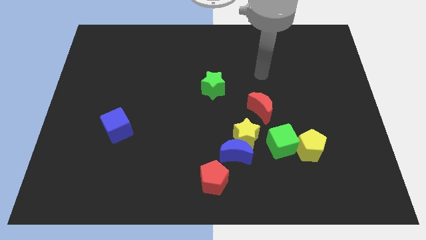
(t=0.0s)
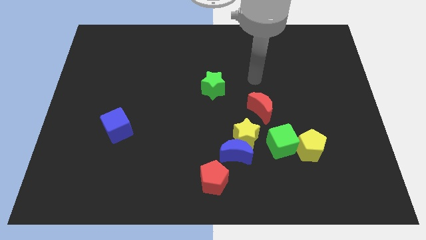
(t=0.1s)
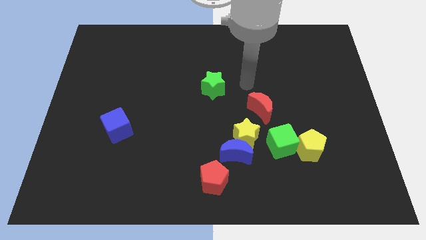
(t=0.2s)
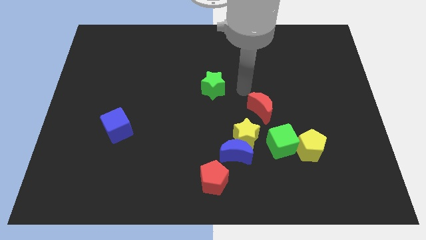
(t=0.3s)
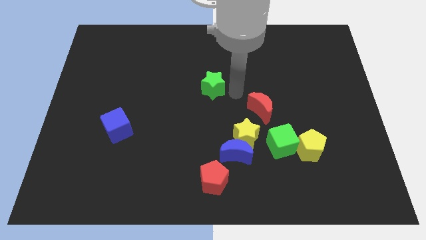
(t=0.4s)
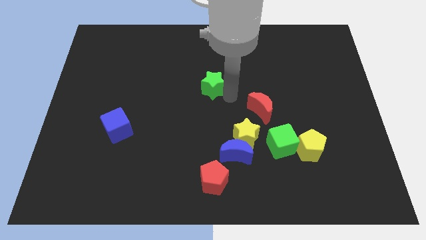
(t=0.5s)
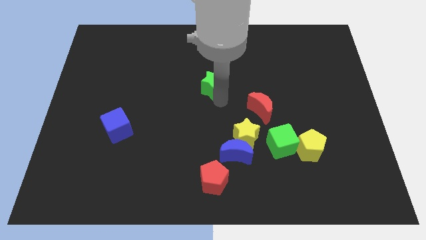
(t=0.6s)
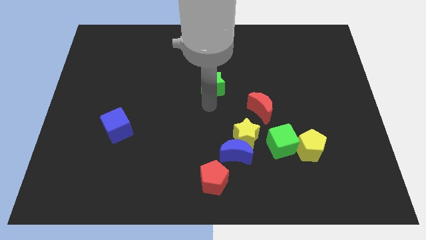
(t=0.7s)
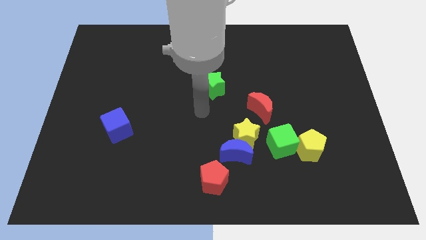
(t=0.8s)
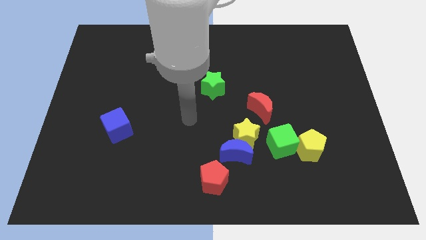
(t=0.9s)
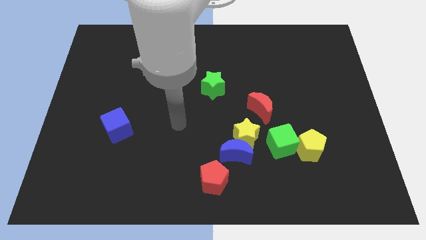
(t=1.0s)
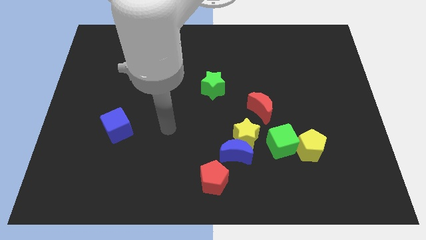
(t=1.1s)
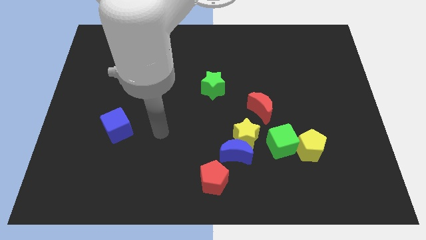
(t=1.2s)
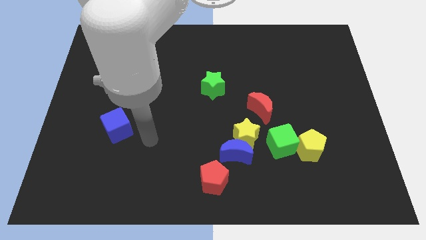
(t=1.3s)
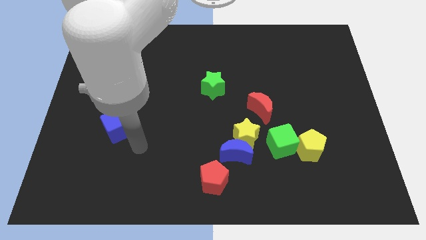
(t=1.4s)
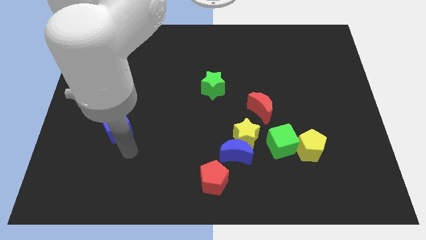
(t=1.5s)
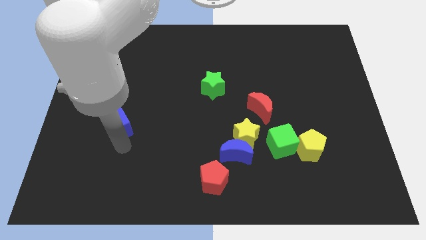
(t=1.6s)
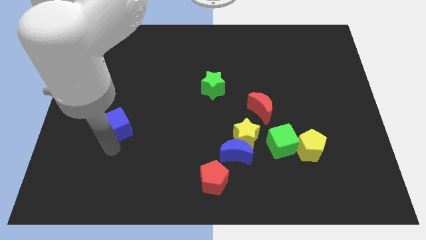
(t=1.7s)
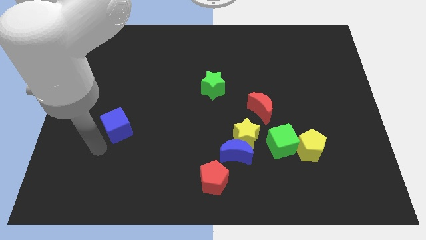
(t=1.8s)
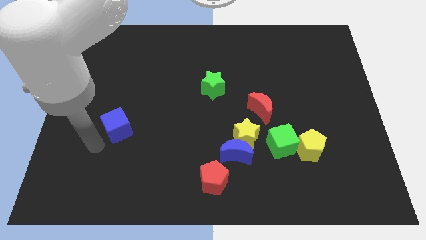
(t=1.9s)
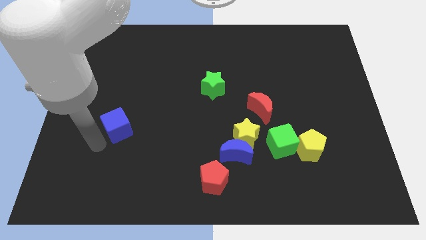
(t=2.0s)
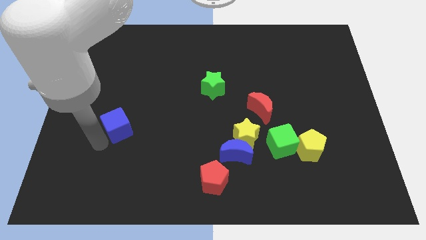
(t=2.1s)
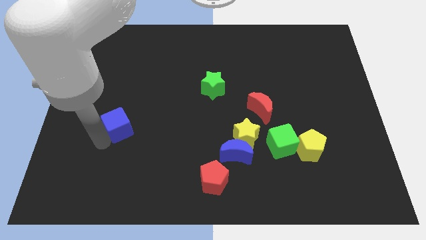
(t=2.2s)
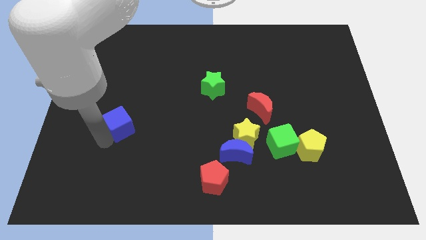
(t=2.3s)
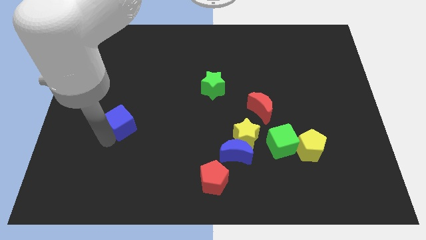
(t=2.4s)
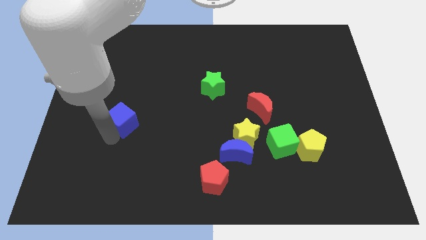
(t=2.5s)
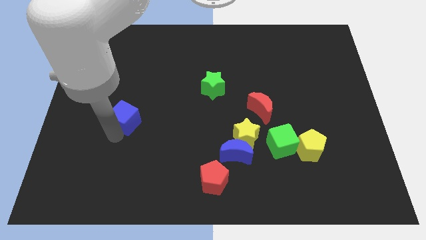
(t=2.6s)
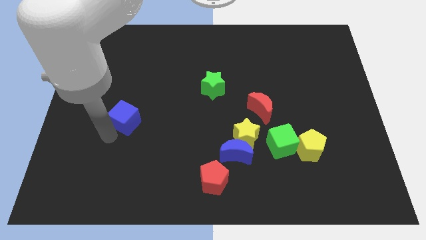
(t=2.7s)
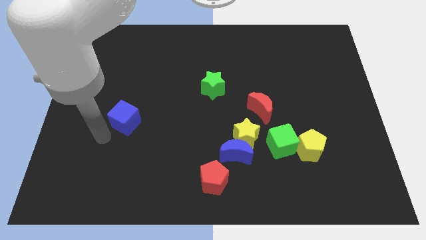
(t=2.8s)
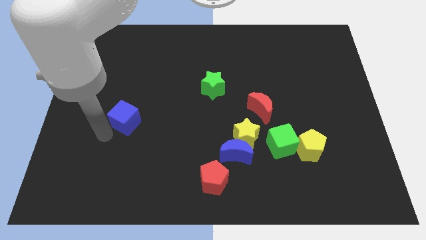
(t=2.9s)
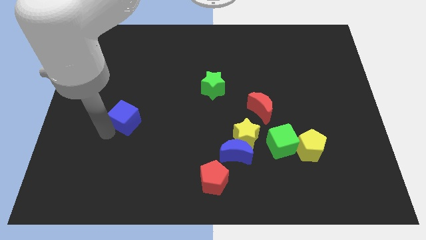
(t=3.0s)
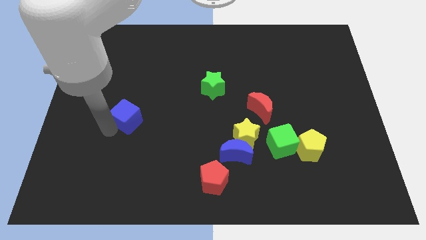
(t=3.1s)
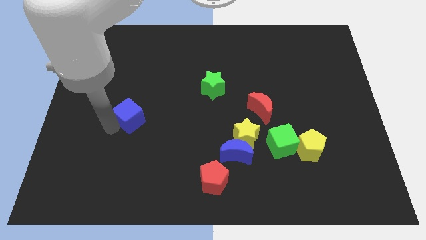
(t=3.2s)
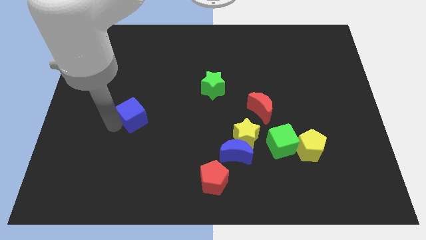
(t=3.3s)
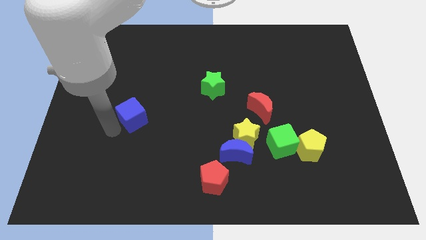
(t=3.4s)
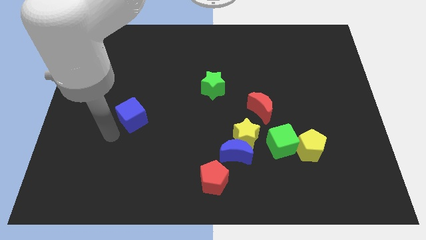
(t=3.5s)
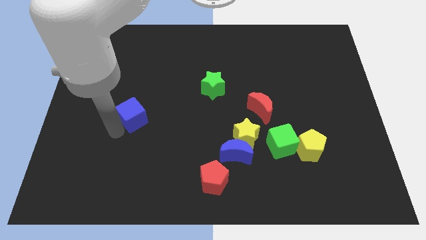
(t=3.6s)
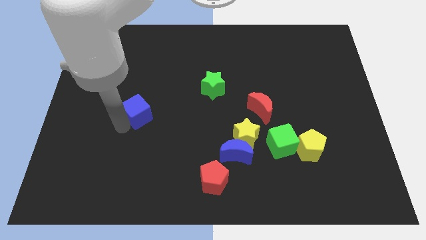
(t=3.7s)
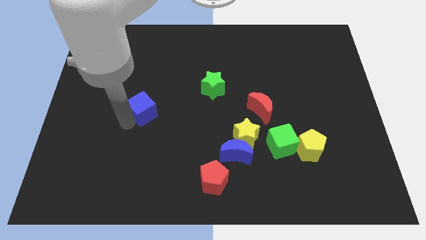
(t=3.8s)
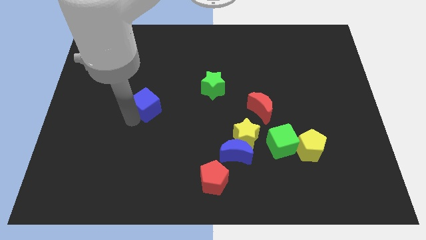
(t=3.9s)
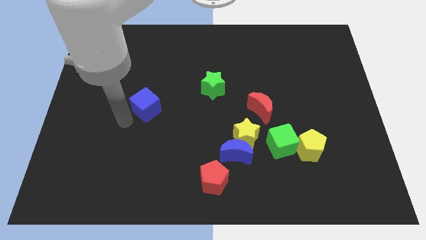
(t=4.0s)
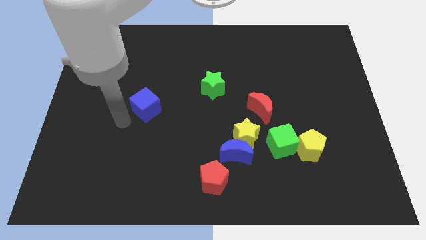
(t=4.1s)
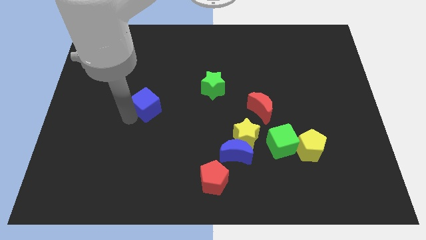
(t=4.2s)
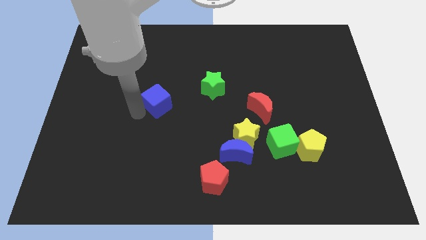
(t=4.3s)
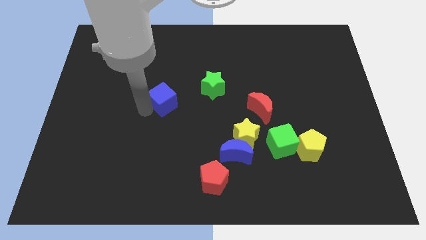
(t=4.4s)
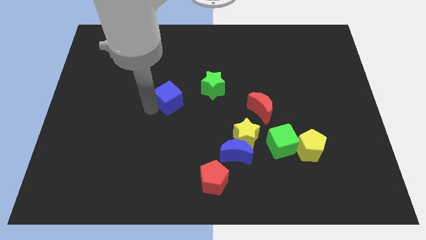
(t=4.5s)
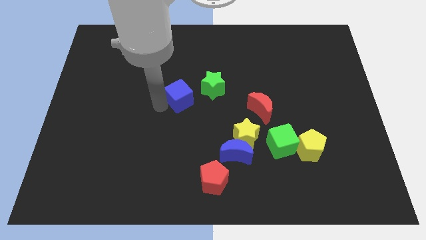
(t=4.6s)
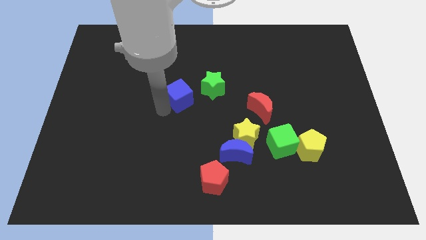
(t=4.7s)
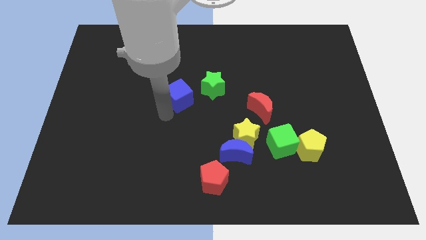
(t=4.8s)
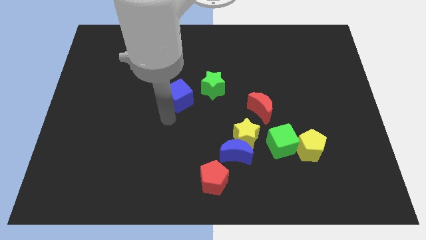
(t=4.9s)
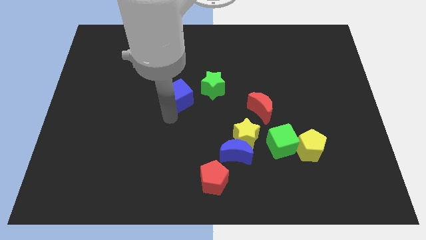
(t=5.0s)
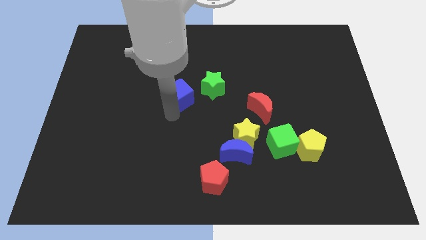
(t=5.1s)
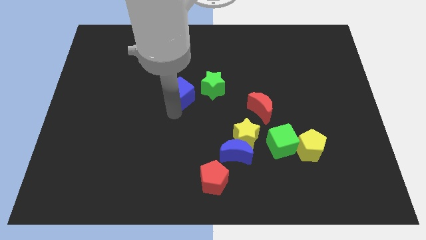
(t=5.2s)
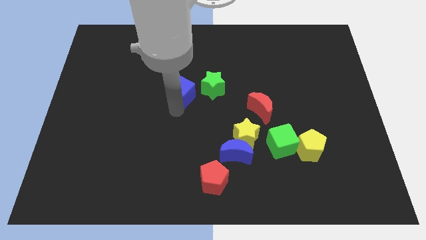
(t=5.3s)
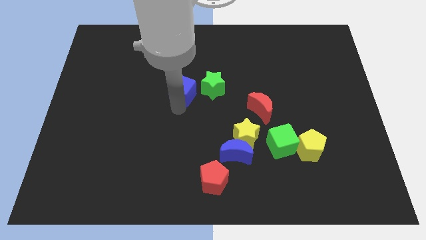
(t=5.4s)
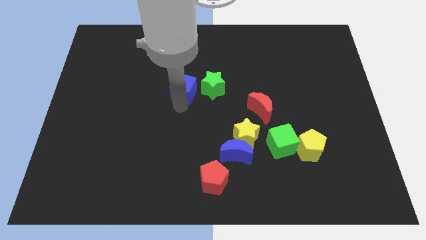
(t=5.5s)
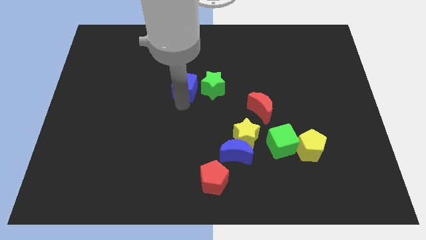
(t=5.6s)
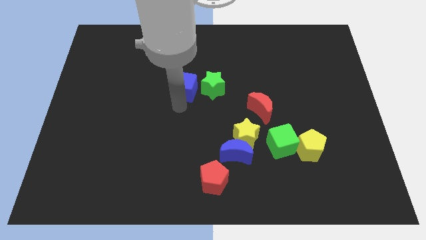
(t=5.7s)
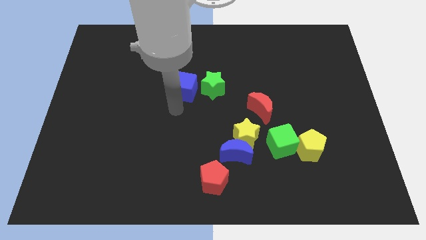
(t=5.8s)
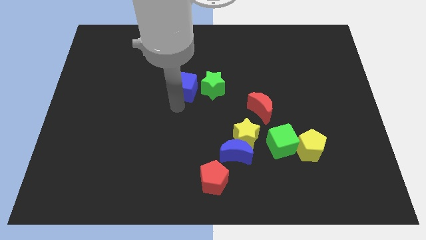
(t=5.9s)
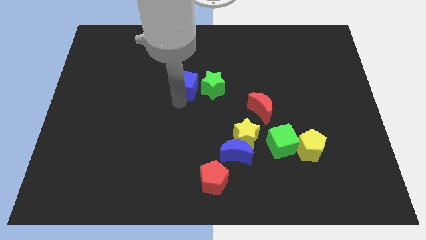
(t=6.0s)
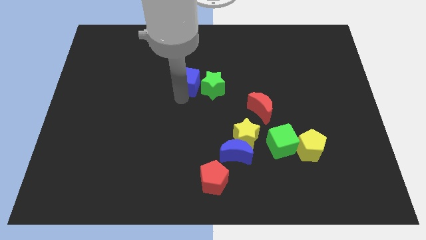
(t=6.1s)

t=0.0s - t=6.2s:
move the blue cube up and to the right

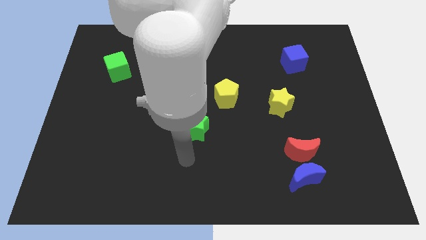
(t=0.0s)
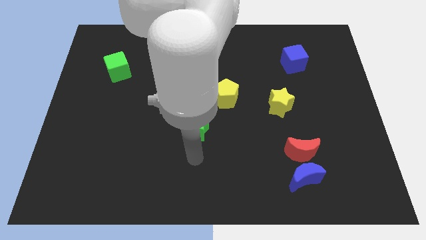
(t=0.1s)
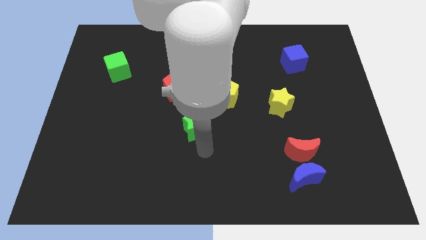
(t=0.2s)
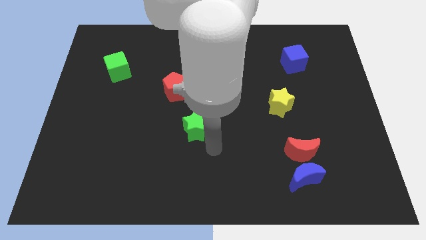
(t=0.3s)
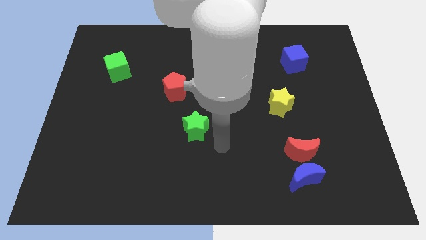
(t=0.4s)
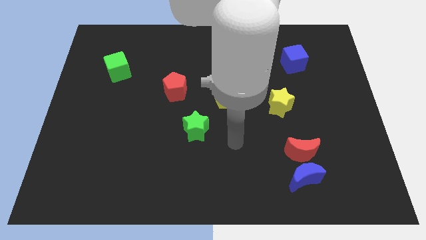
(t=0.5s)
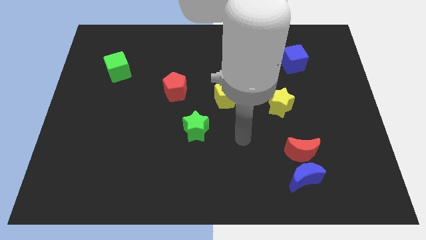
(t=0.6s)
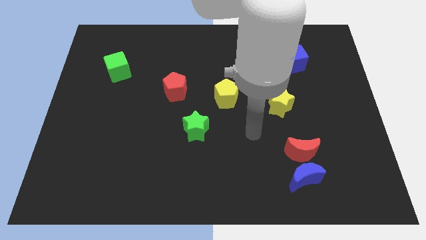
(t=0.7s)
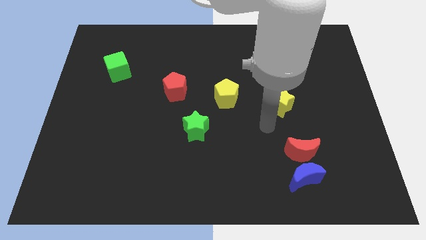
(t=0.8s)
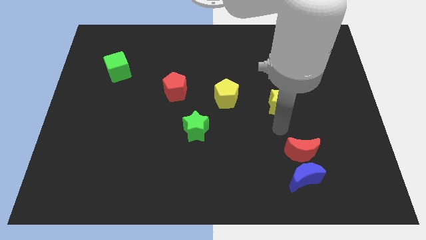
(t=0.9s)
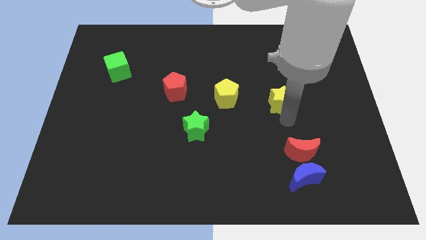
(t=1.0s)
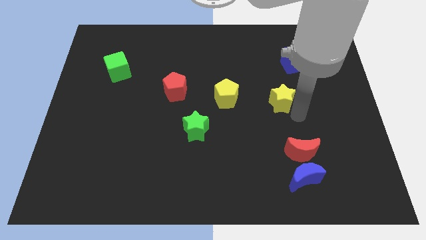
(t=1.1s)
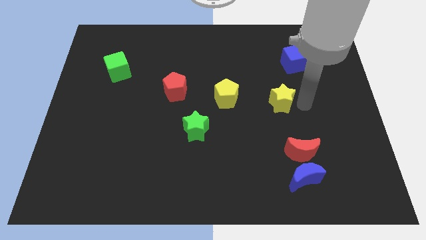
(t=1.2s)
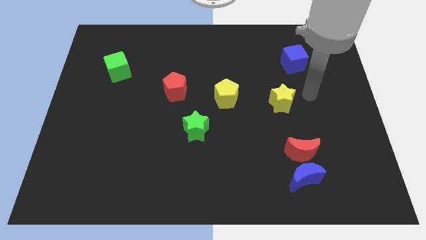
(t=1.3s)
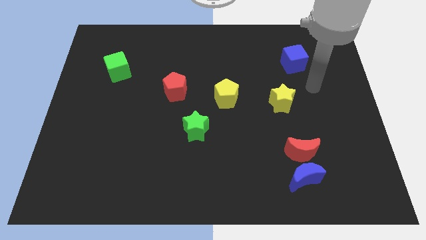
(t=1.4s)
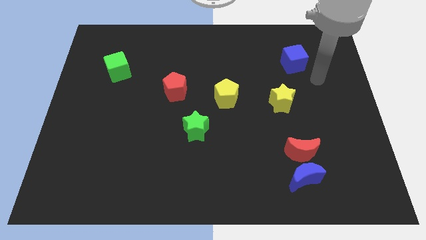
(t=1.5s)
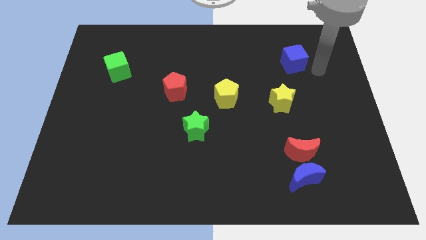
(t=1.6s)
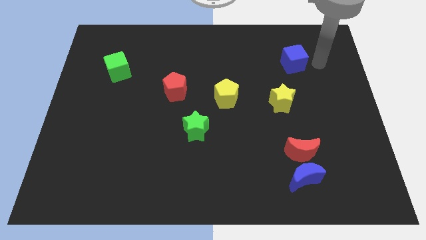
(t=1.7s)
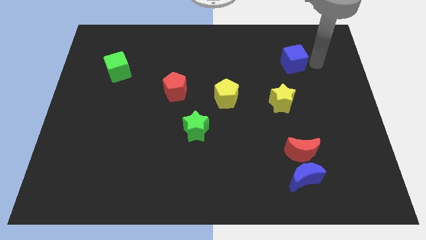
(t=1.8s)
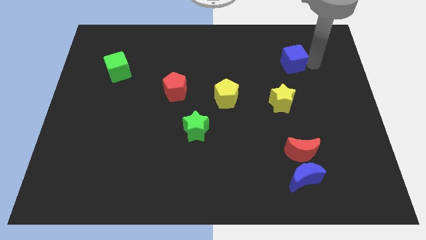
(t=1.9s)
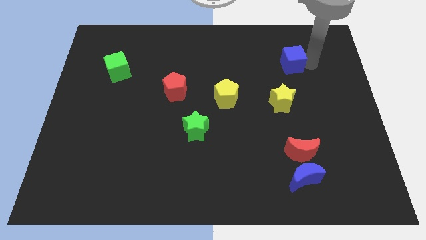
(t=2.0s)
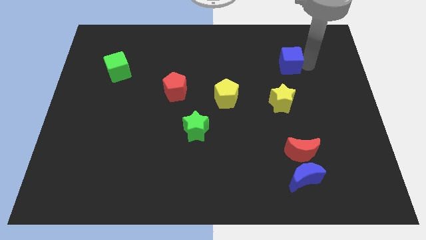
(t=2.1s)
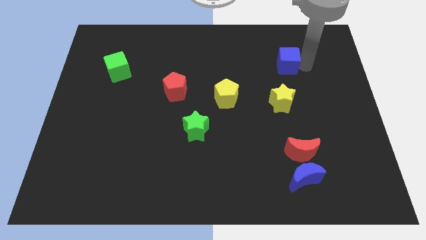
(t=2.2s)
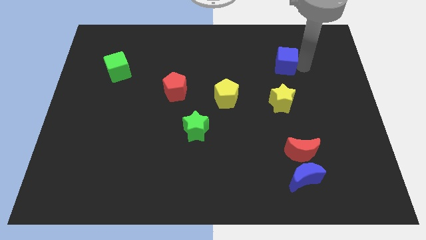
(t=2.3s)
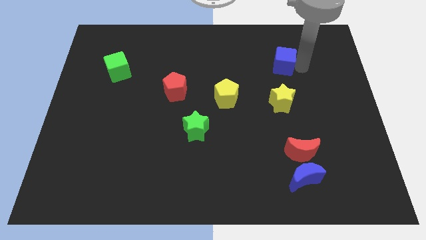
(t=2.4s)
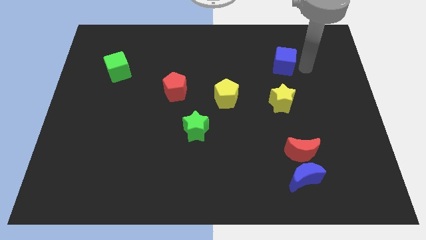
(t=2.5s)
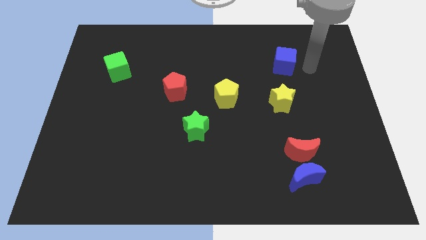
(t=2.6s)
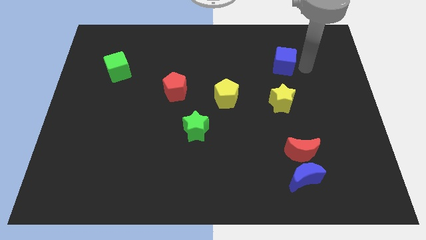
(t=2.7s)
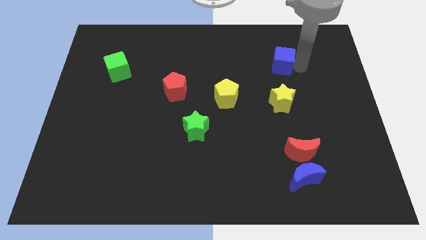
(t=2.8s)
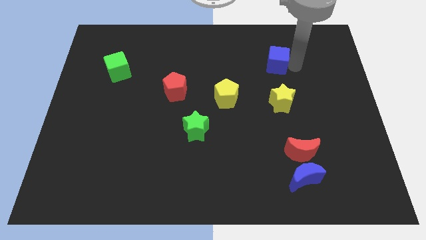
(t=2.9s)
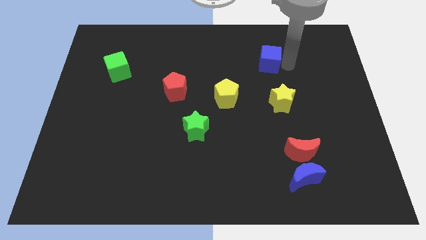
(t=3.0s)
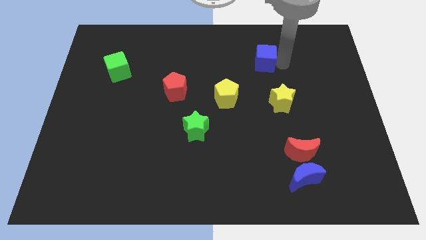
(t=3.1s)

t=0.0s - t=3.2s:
slide the blue cube left slightly
